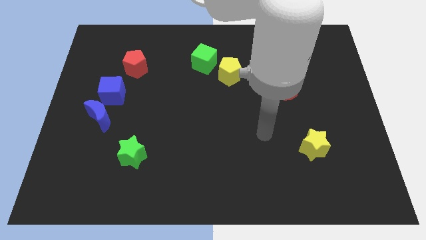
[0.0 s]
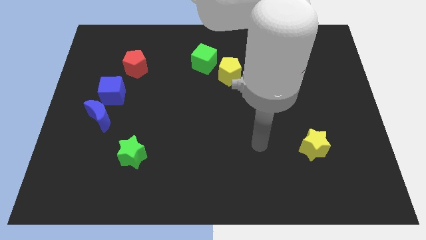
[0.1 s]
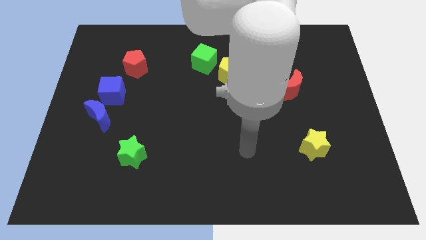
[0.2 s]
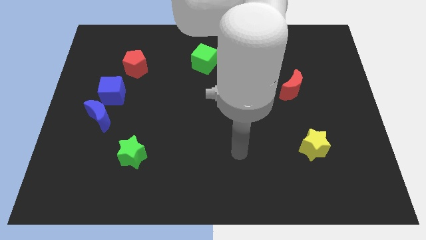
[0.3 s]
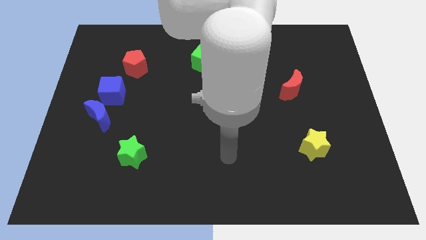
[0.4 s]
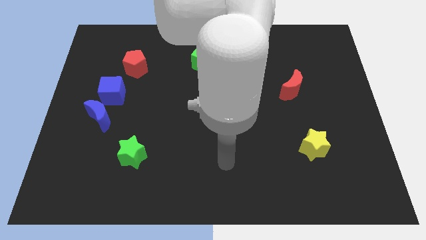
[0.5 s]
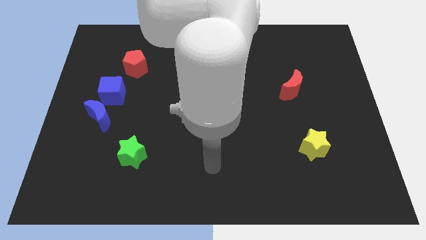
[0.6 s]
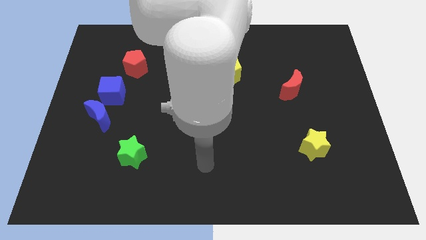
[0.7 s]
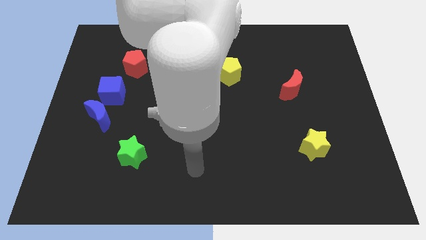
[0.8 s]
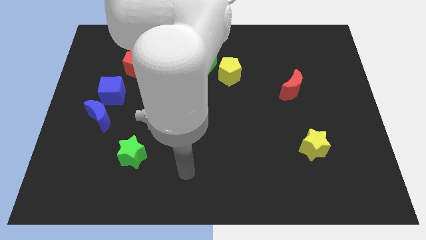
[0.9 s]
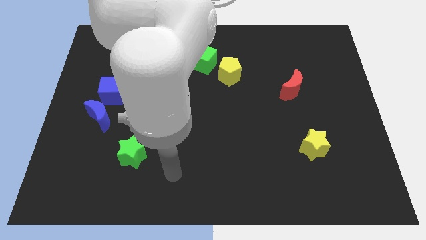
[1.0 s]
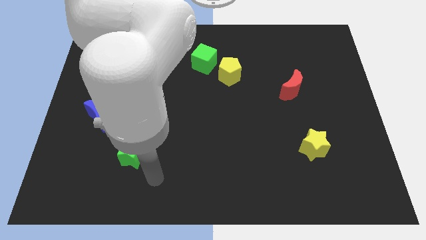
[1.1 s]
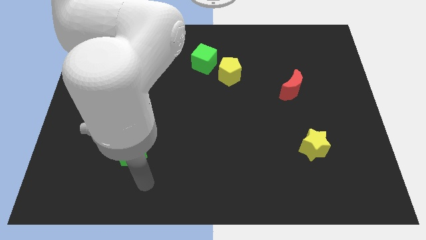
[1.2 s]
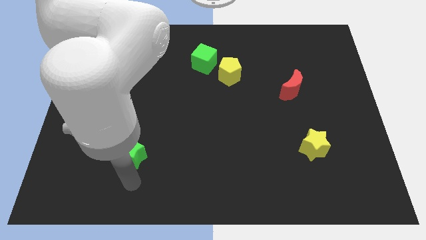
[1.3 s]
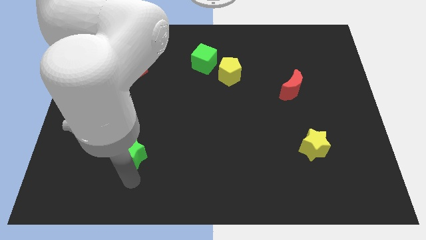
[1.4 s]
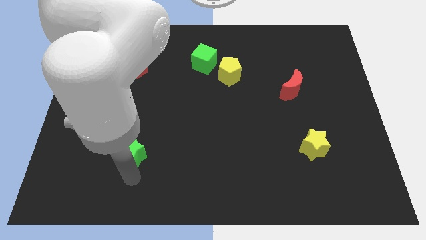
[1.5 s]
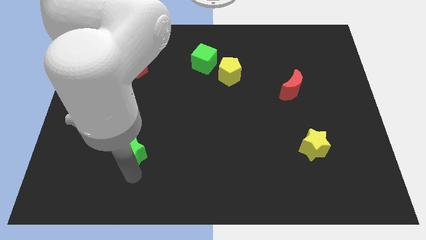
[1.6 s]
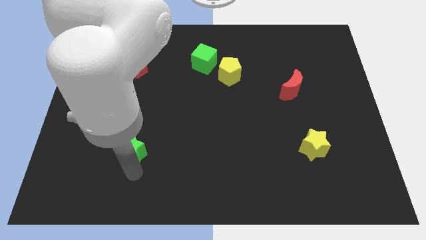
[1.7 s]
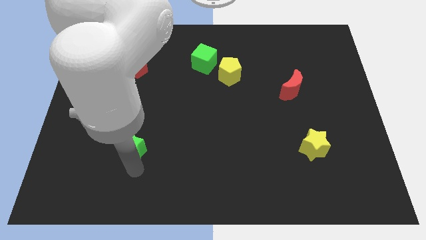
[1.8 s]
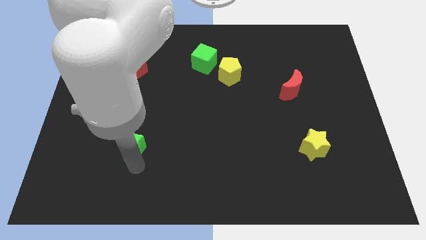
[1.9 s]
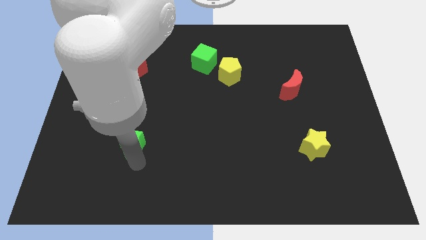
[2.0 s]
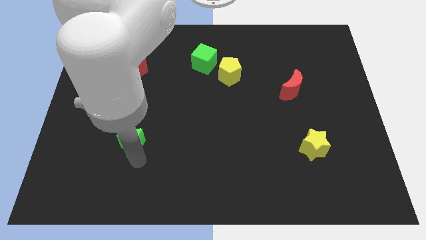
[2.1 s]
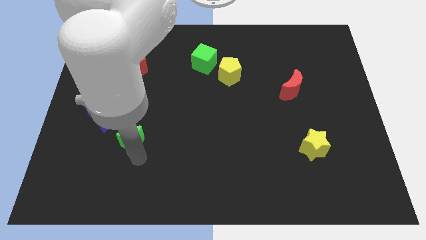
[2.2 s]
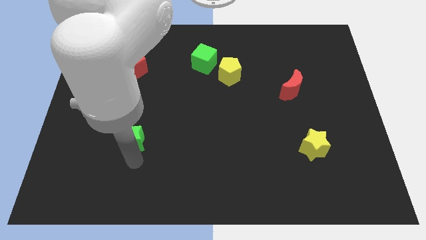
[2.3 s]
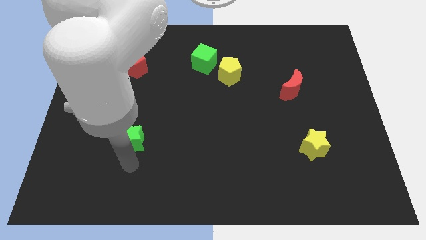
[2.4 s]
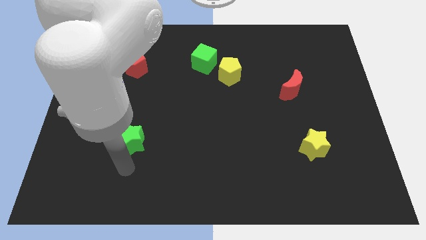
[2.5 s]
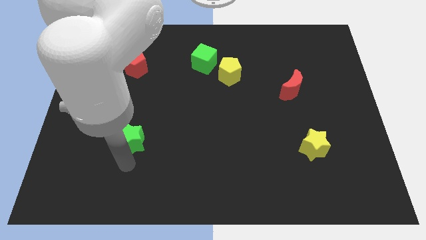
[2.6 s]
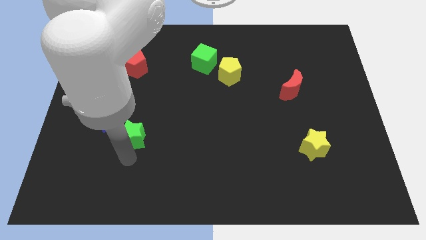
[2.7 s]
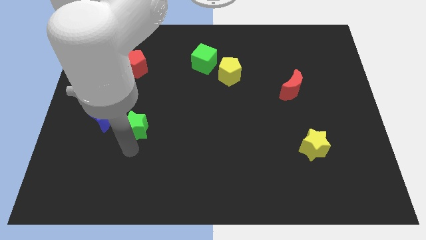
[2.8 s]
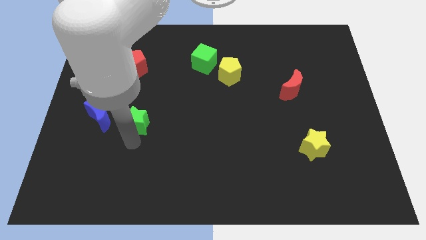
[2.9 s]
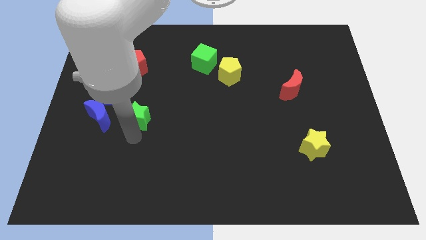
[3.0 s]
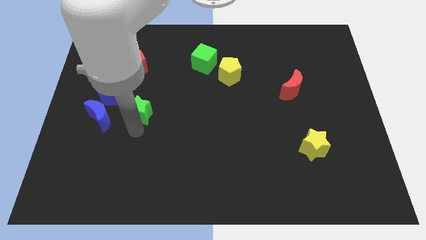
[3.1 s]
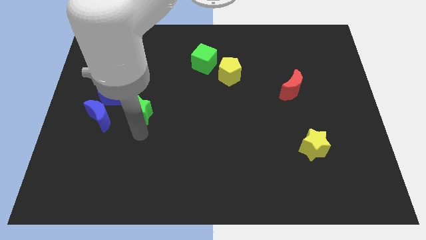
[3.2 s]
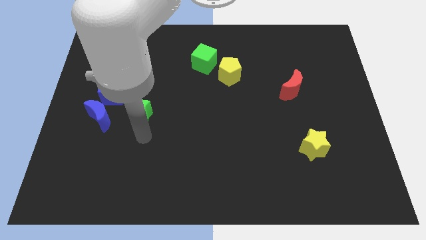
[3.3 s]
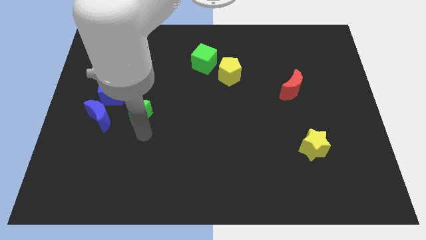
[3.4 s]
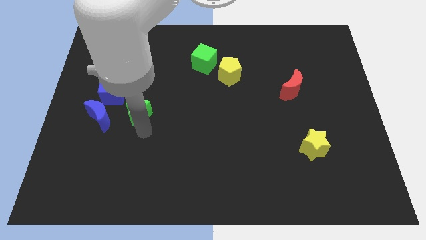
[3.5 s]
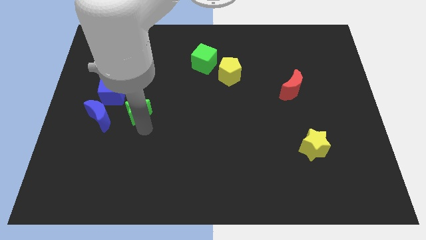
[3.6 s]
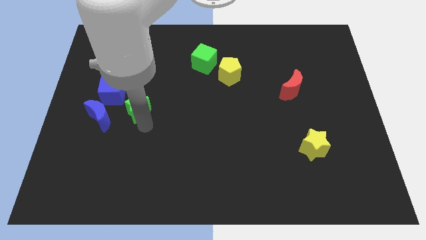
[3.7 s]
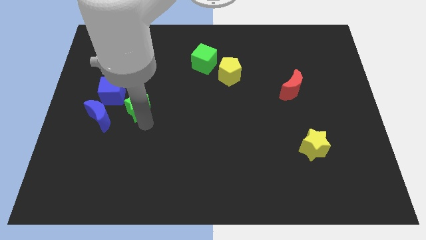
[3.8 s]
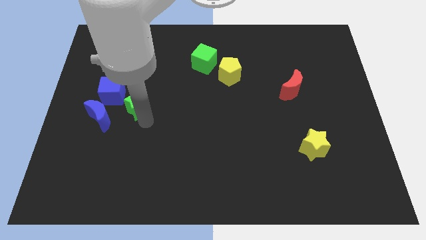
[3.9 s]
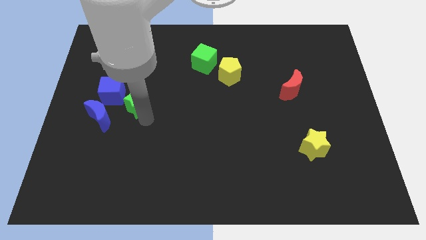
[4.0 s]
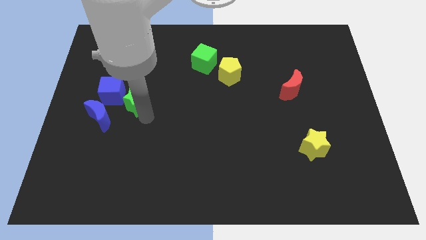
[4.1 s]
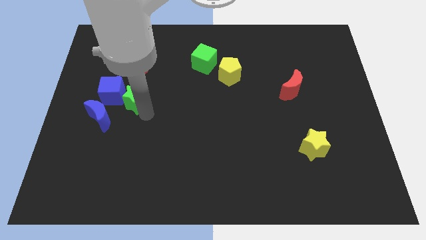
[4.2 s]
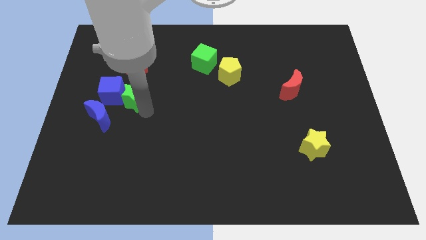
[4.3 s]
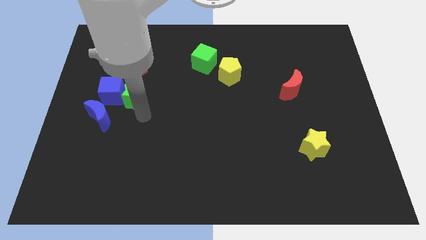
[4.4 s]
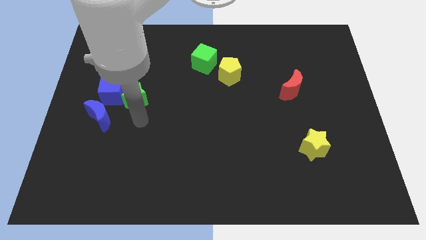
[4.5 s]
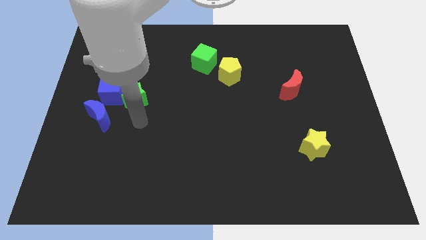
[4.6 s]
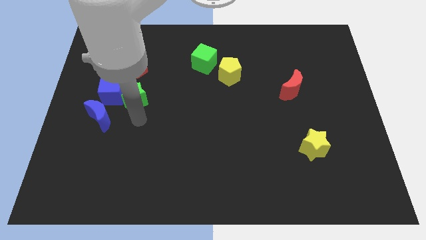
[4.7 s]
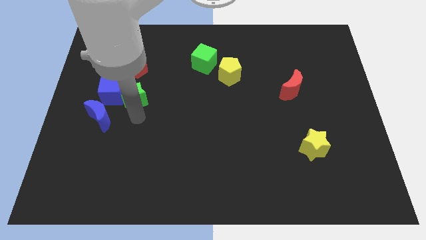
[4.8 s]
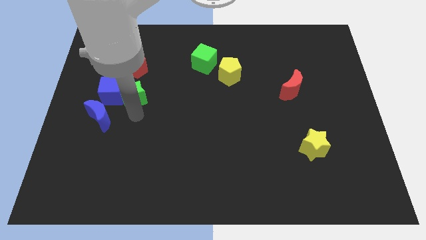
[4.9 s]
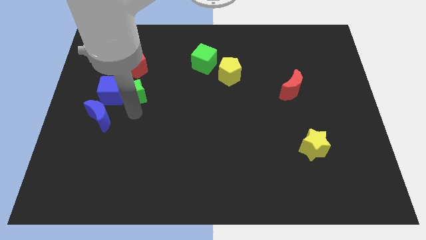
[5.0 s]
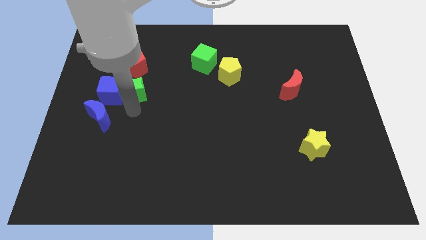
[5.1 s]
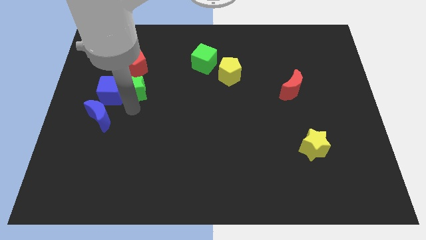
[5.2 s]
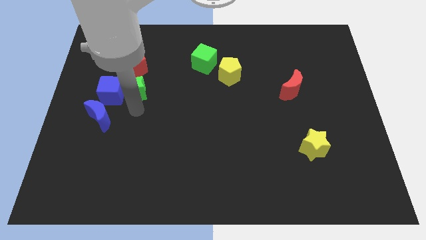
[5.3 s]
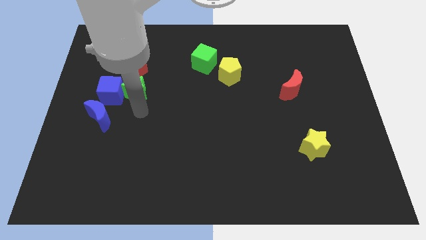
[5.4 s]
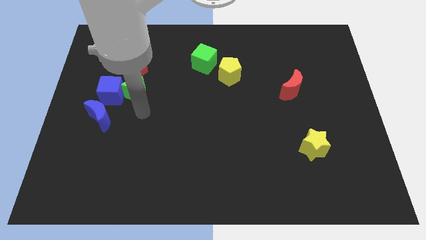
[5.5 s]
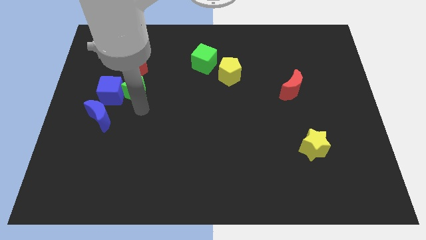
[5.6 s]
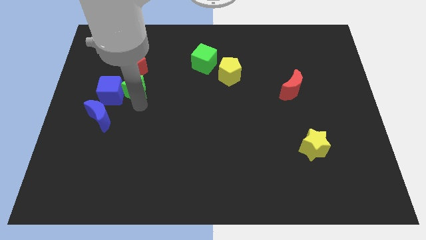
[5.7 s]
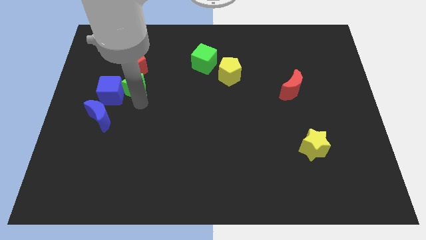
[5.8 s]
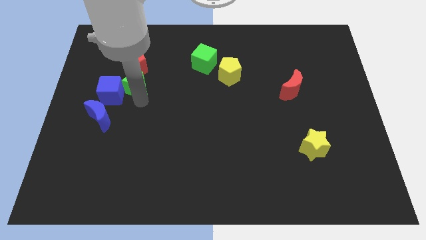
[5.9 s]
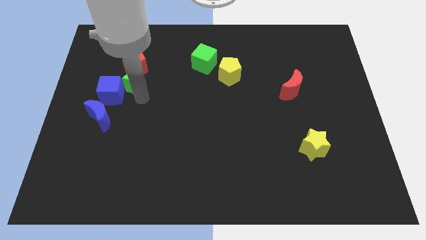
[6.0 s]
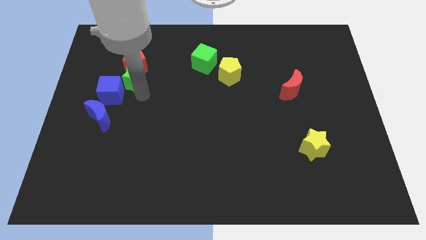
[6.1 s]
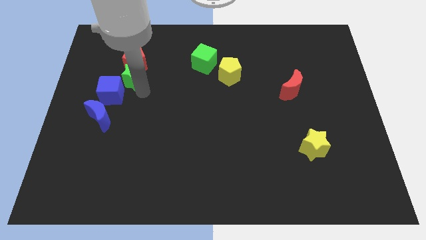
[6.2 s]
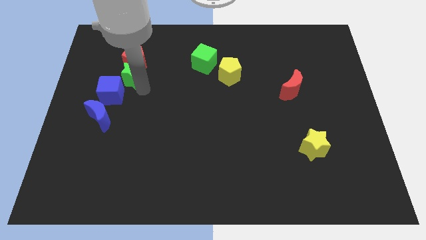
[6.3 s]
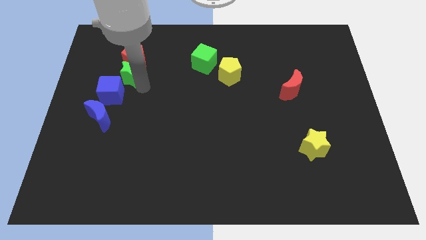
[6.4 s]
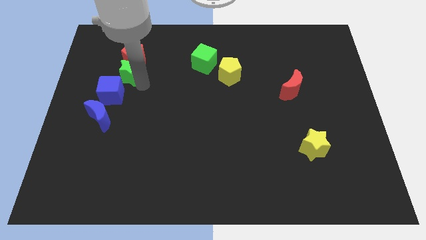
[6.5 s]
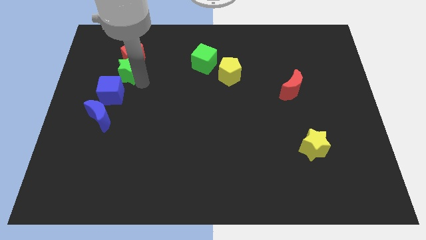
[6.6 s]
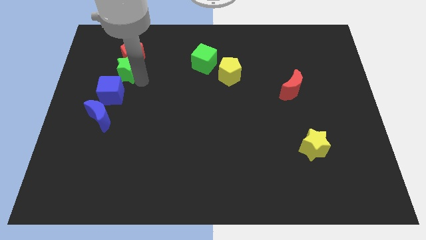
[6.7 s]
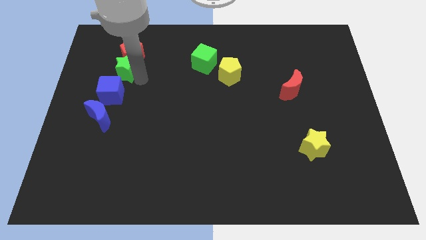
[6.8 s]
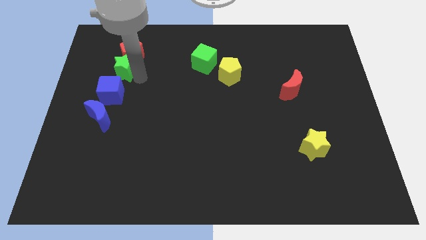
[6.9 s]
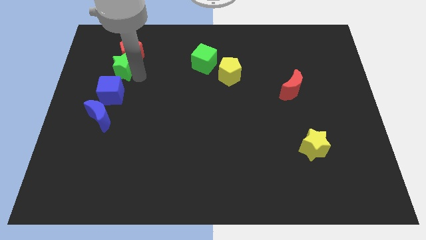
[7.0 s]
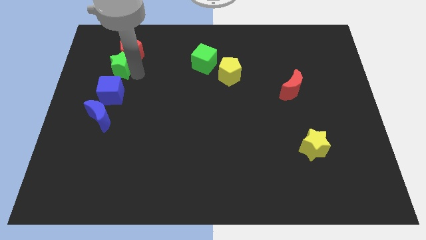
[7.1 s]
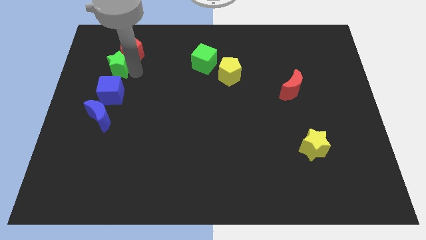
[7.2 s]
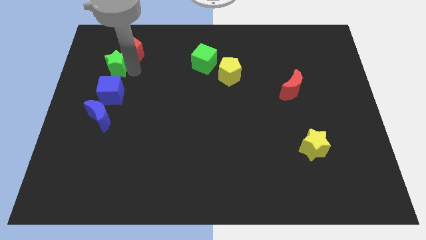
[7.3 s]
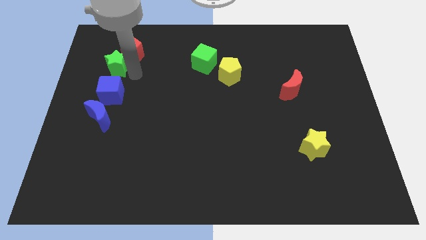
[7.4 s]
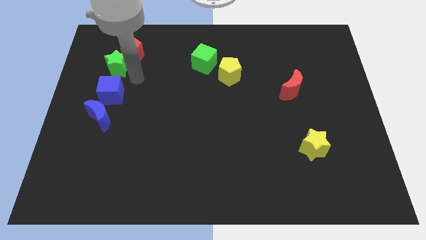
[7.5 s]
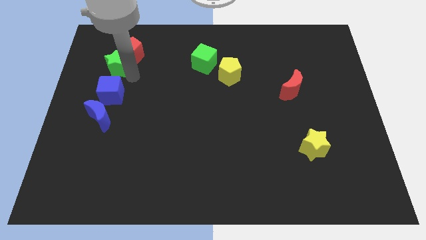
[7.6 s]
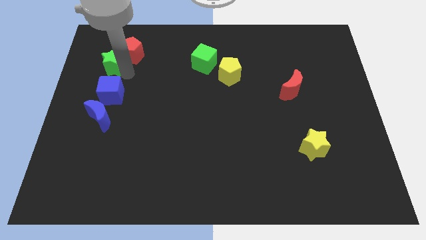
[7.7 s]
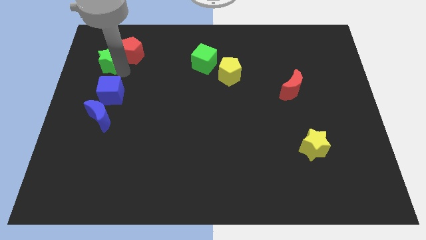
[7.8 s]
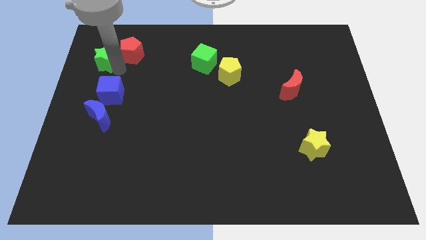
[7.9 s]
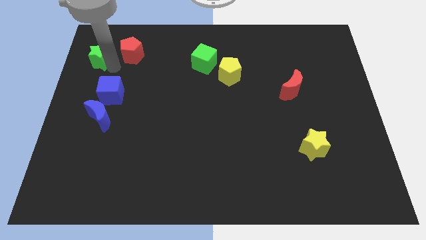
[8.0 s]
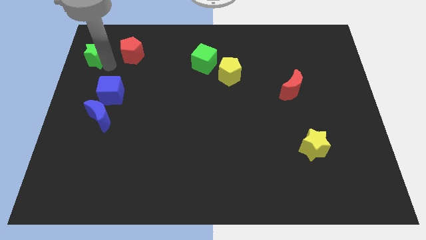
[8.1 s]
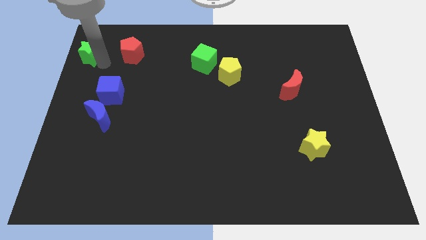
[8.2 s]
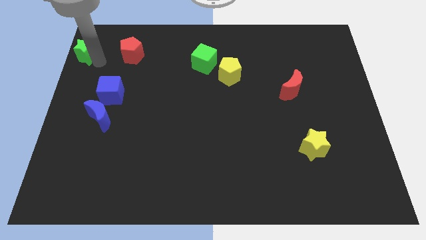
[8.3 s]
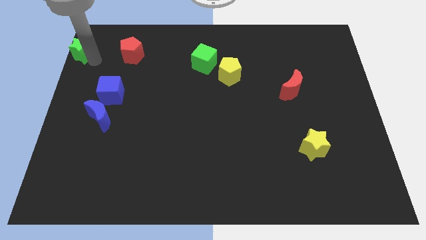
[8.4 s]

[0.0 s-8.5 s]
slide the green star to the top left
